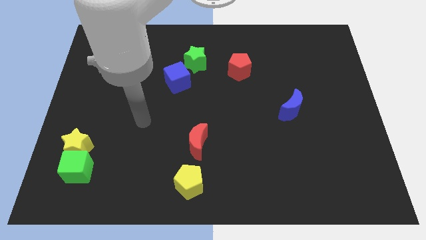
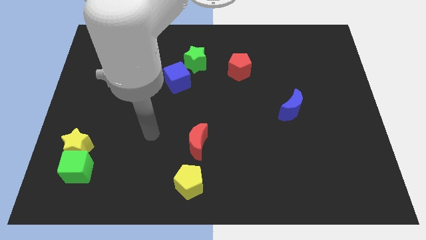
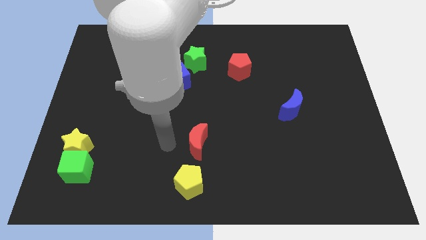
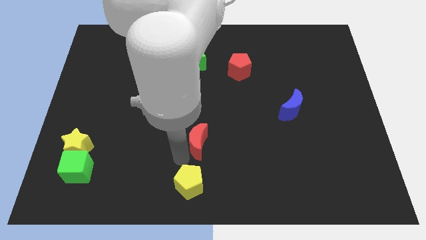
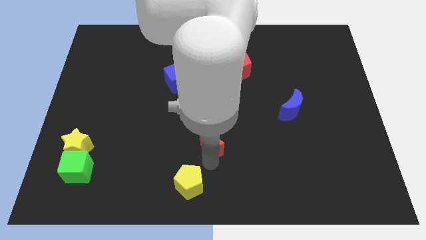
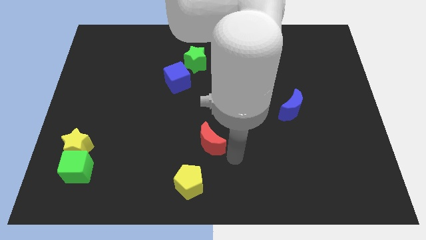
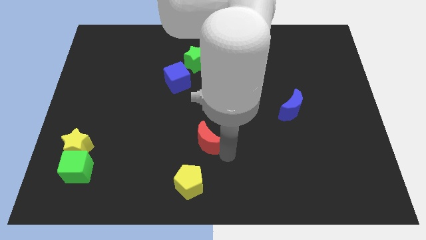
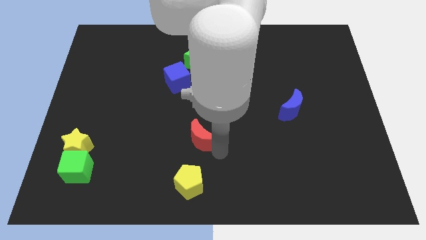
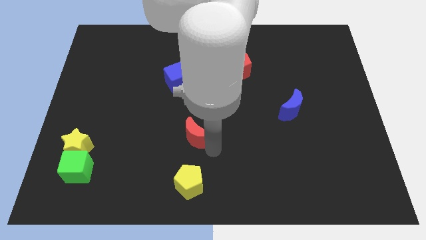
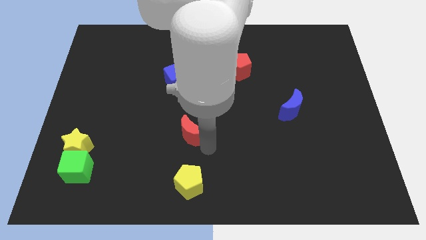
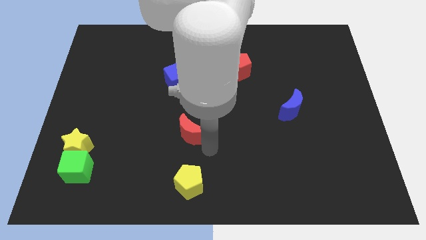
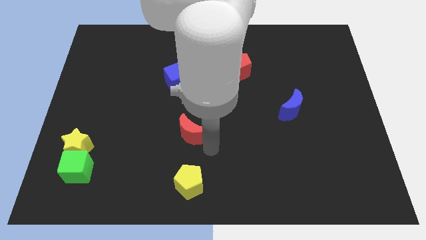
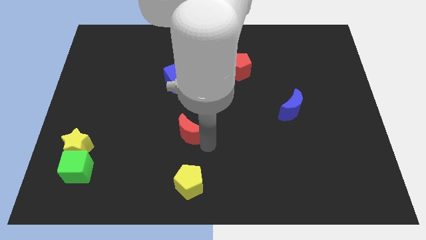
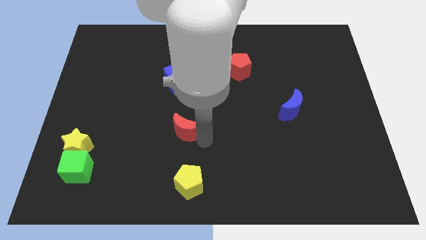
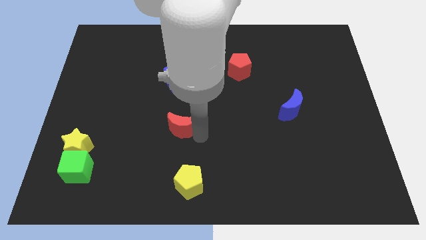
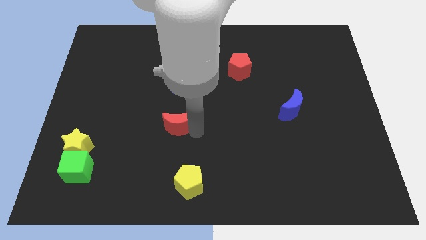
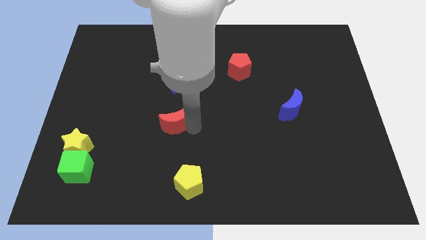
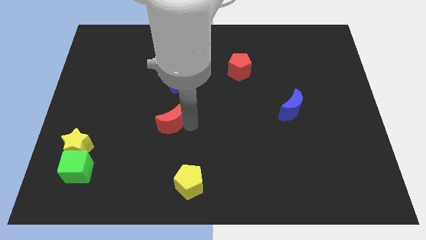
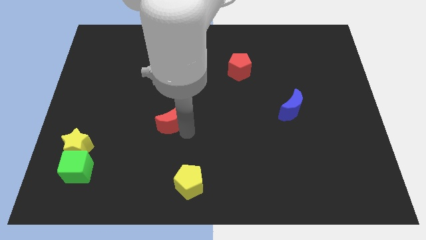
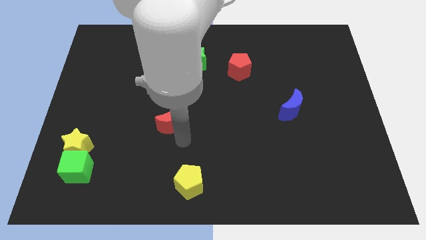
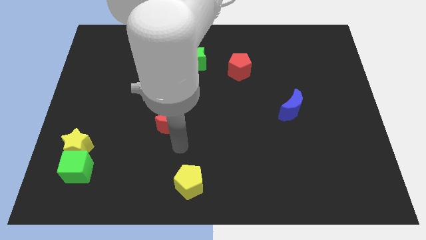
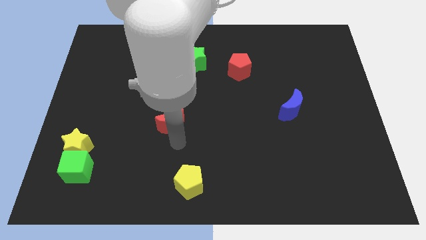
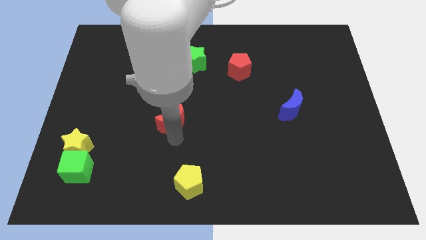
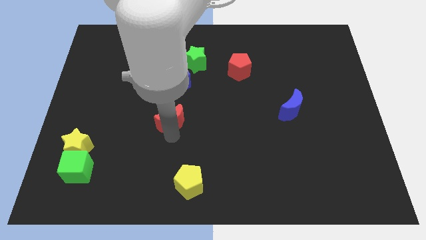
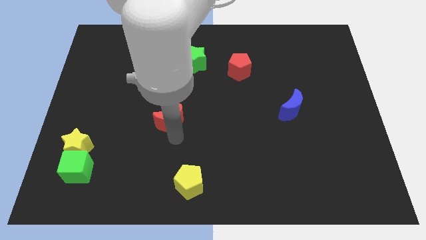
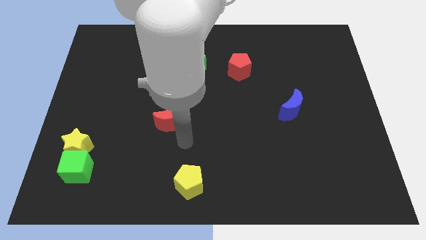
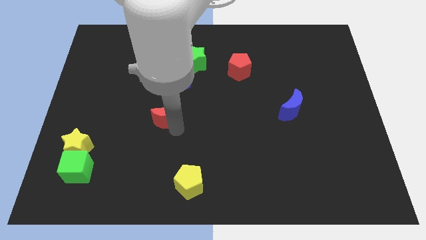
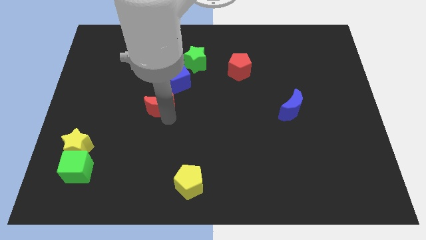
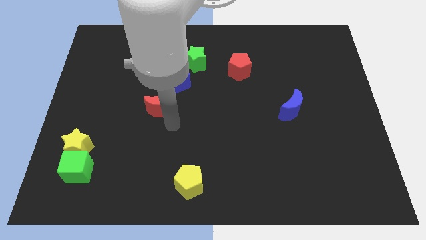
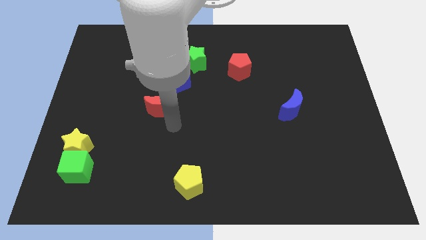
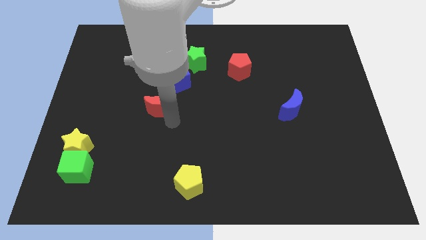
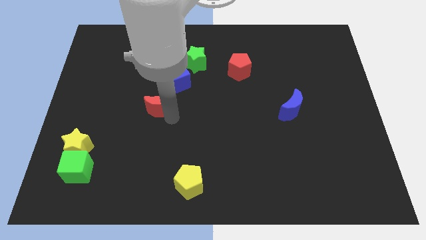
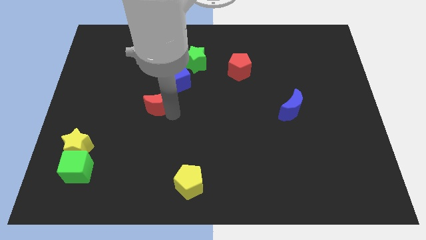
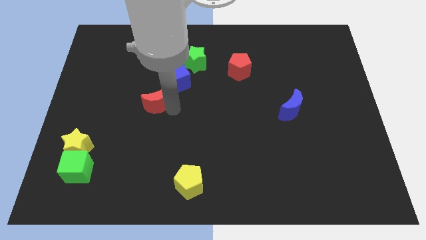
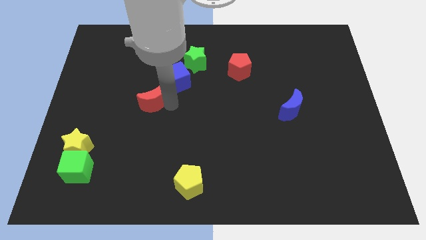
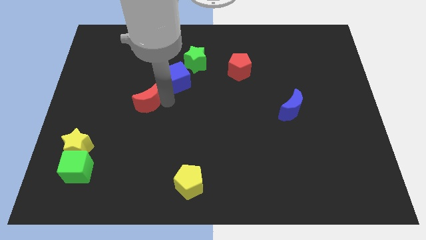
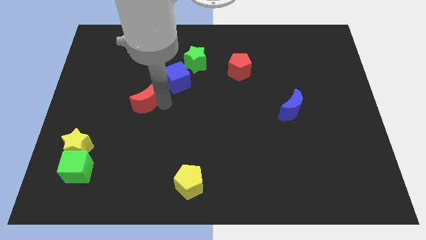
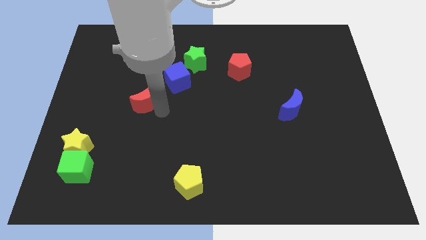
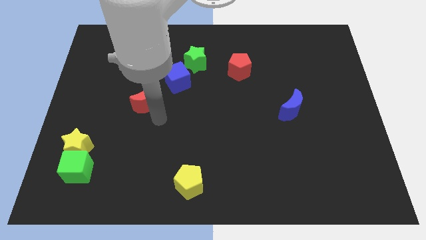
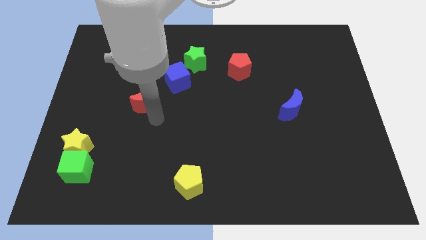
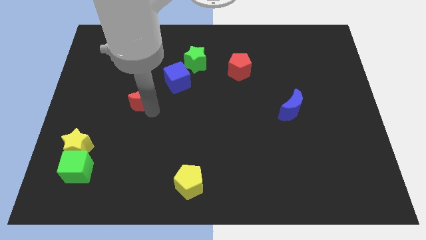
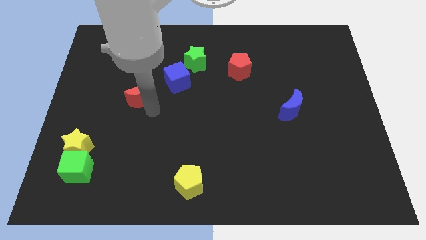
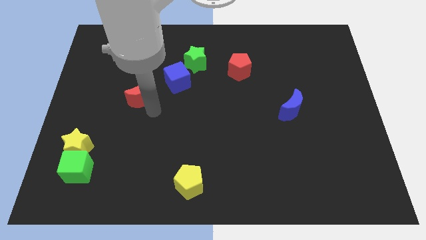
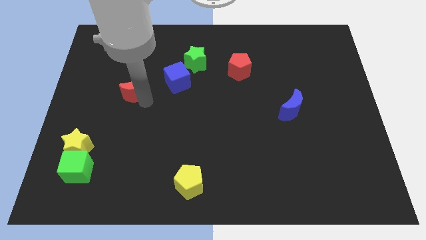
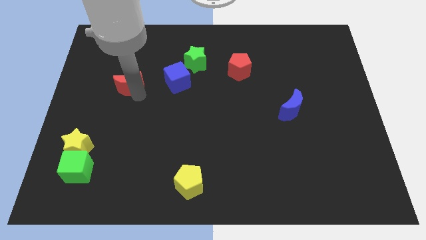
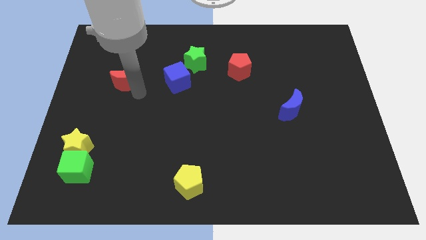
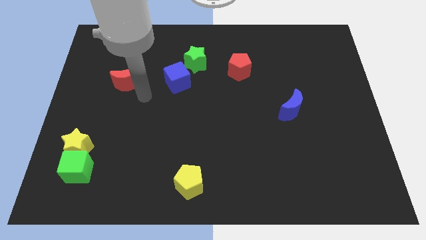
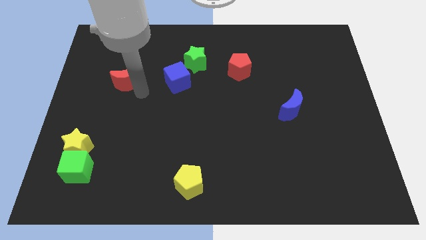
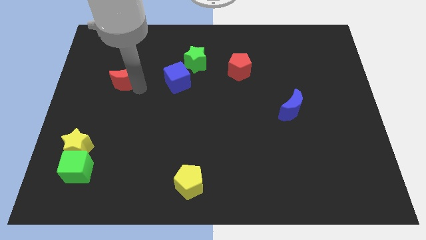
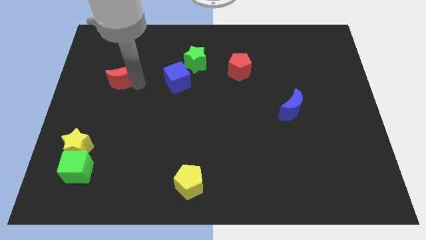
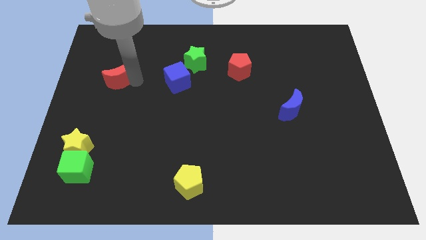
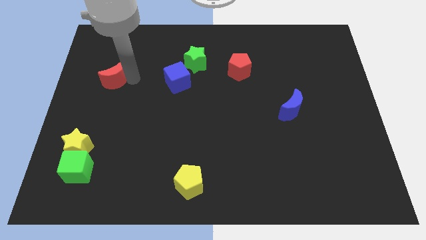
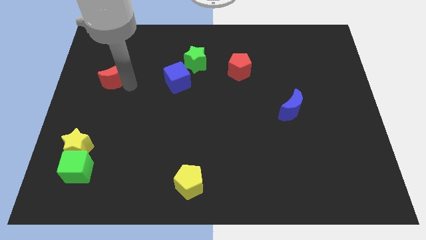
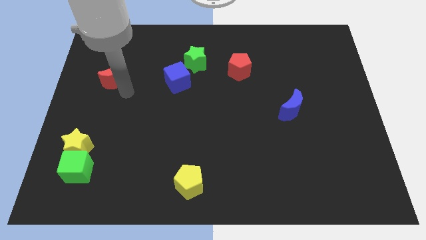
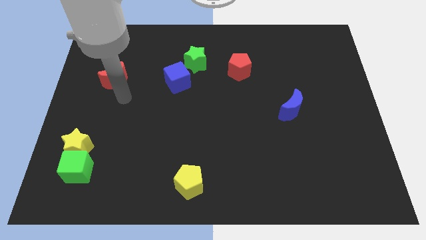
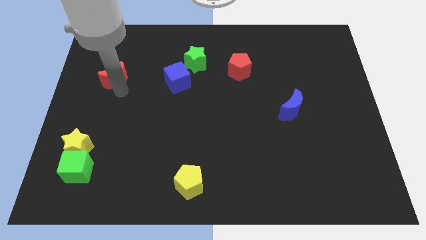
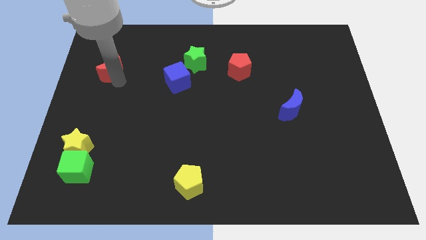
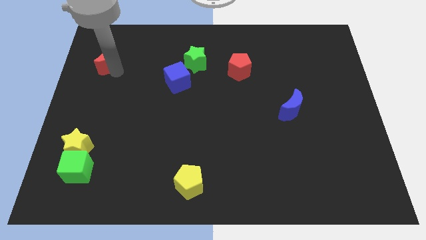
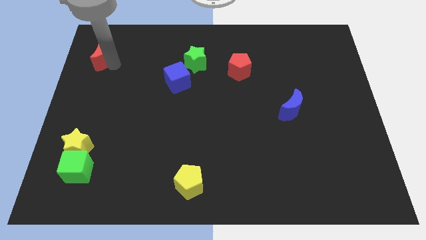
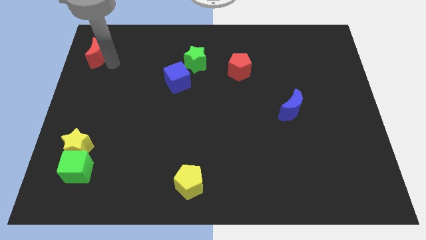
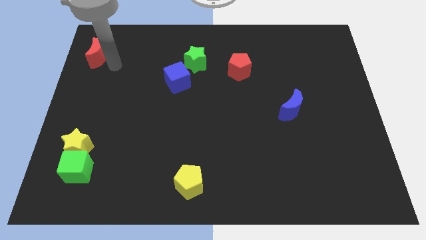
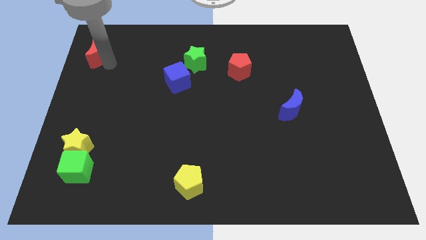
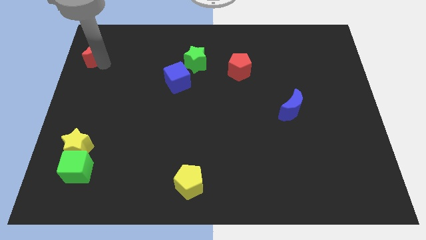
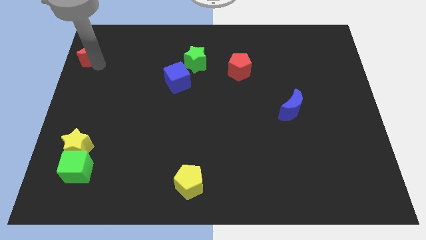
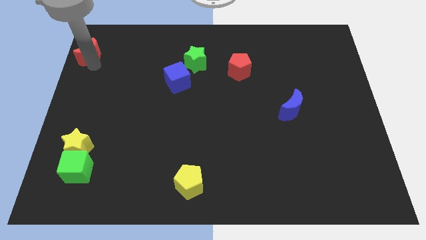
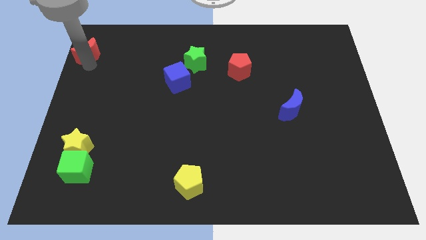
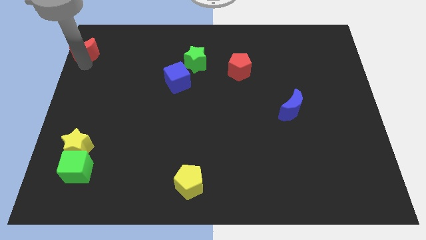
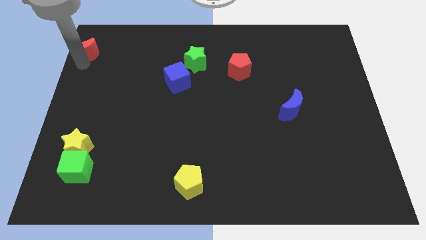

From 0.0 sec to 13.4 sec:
slide the red moon to the top left corner
